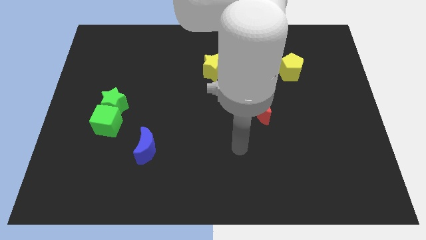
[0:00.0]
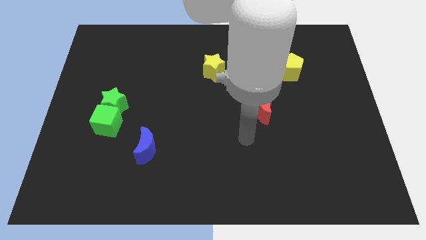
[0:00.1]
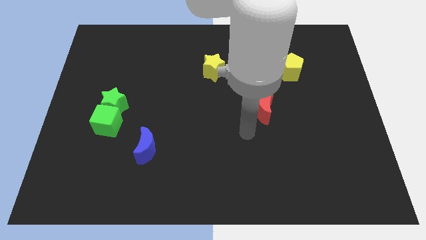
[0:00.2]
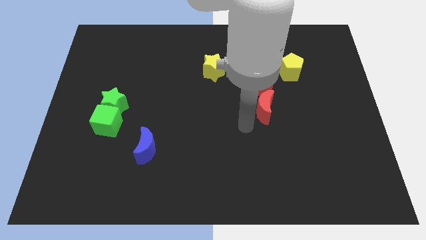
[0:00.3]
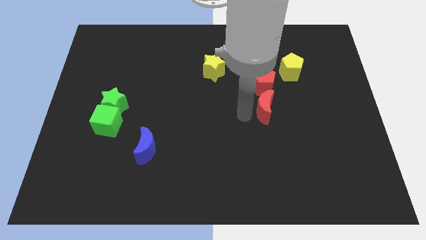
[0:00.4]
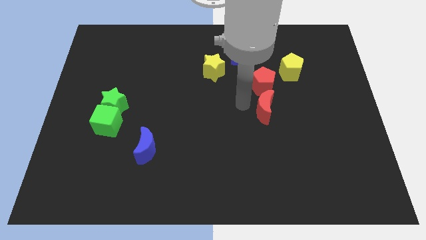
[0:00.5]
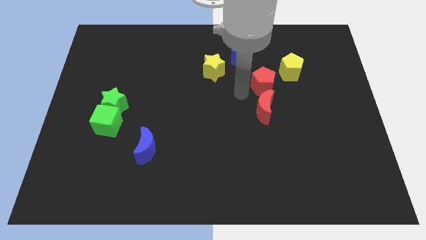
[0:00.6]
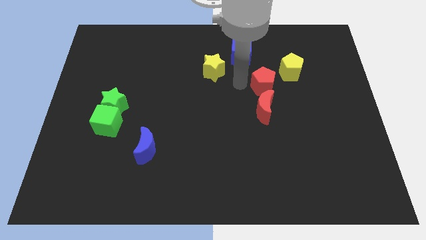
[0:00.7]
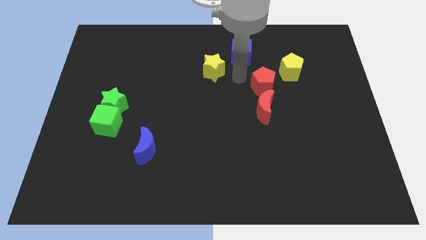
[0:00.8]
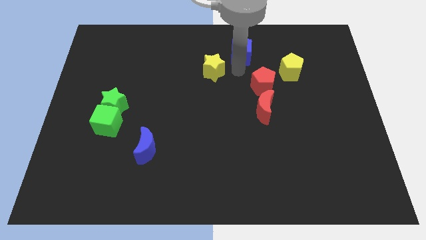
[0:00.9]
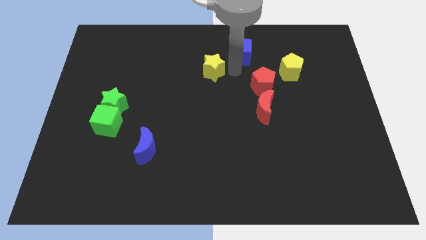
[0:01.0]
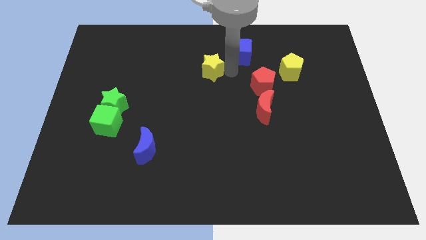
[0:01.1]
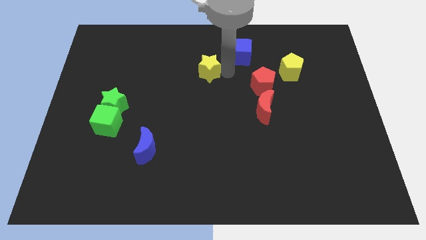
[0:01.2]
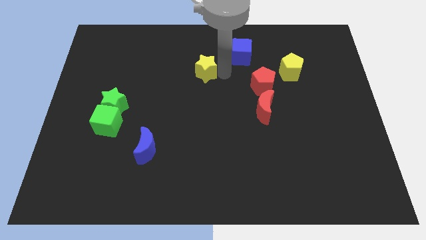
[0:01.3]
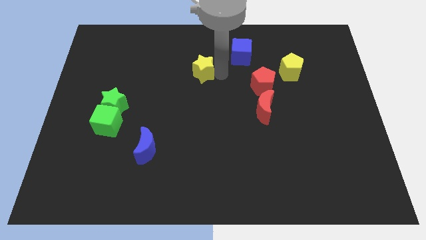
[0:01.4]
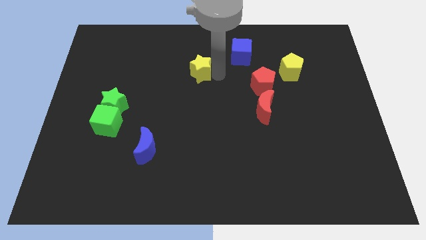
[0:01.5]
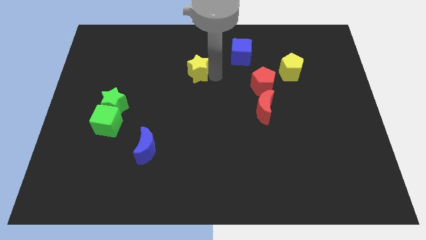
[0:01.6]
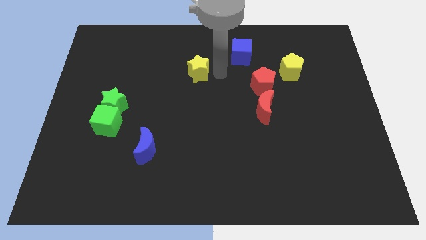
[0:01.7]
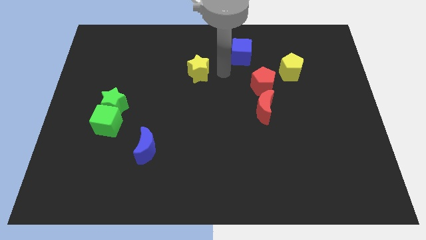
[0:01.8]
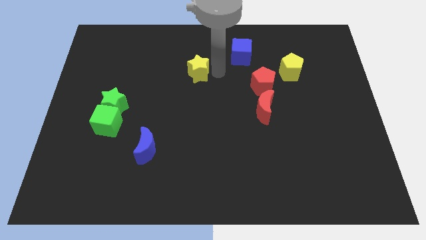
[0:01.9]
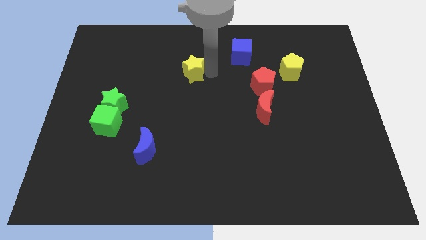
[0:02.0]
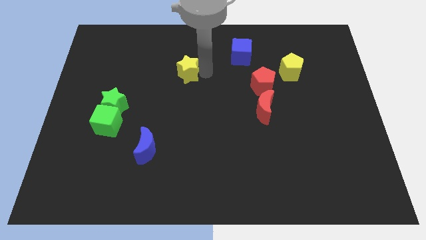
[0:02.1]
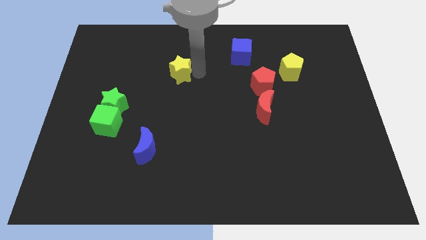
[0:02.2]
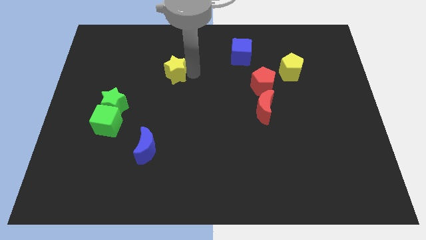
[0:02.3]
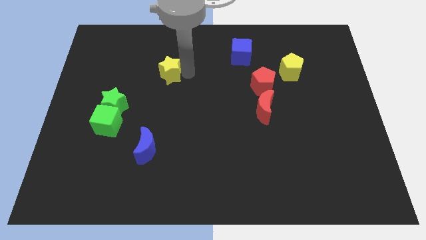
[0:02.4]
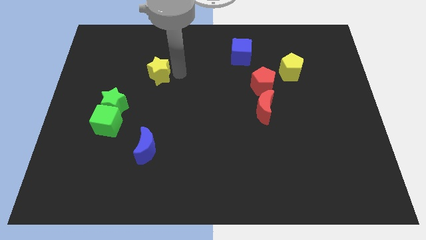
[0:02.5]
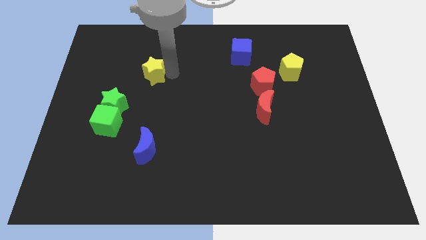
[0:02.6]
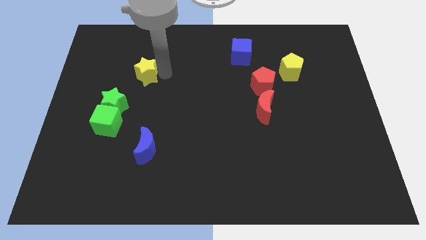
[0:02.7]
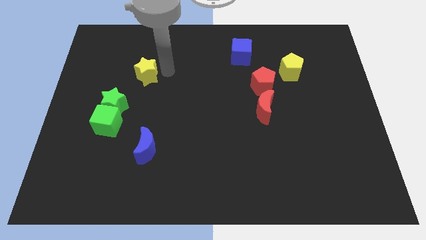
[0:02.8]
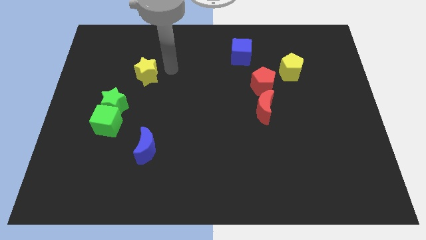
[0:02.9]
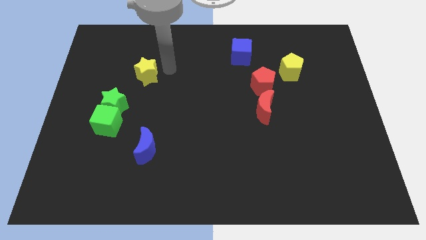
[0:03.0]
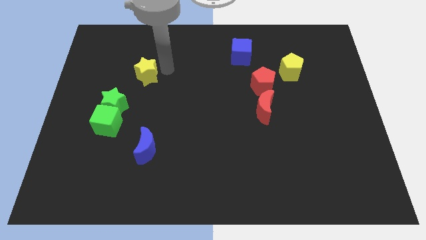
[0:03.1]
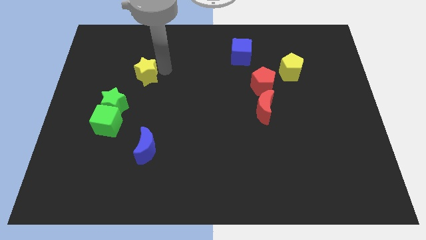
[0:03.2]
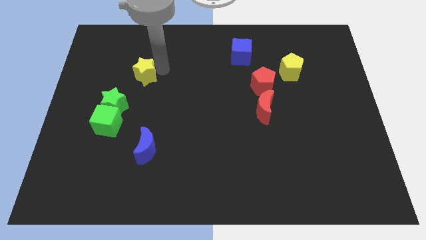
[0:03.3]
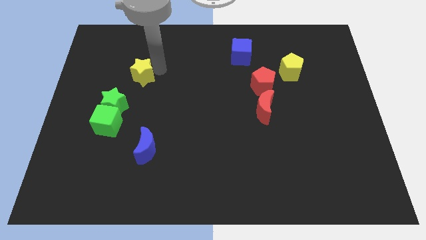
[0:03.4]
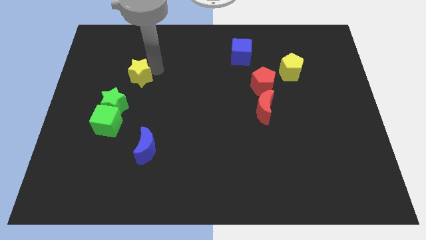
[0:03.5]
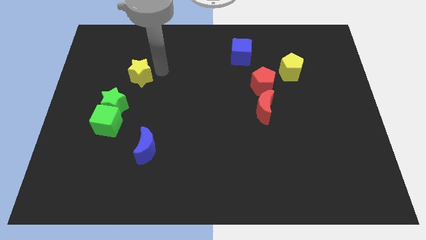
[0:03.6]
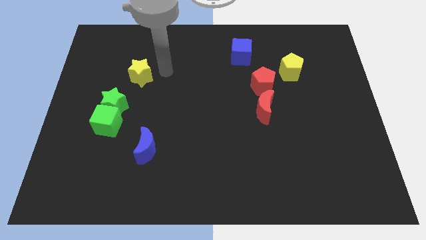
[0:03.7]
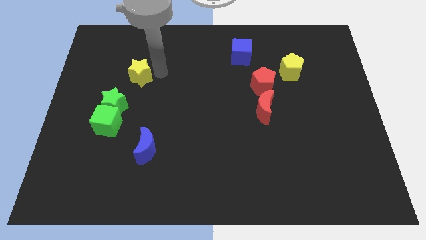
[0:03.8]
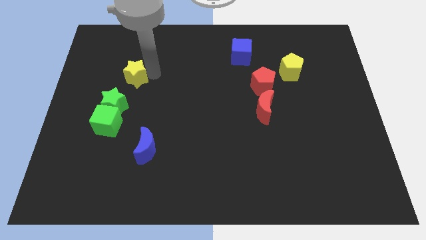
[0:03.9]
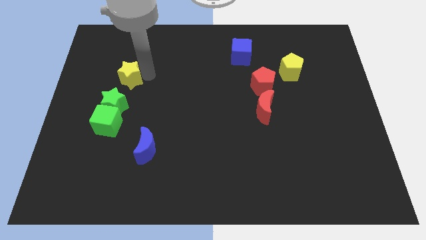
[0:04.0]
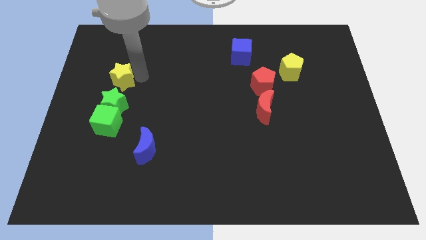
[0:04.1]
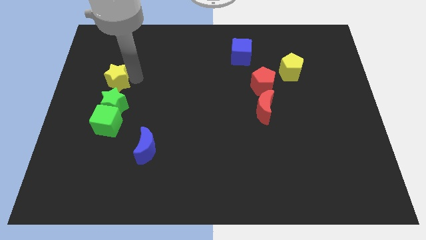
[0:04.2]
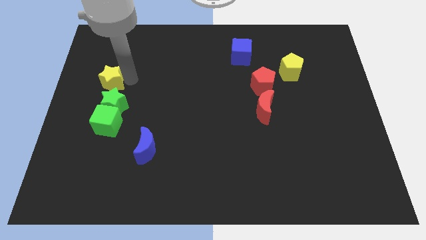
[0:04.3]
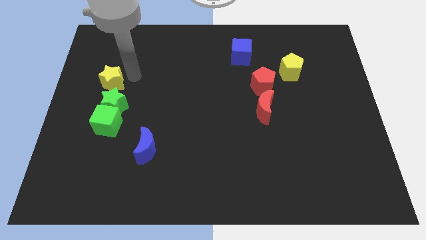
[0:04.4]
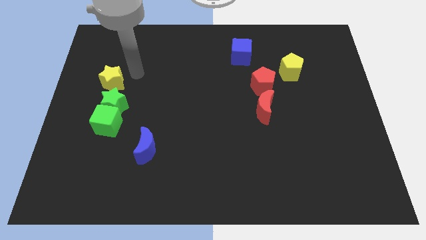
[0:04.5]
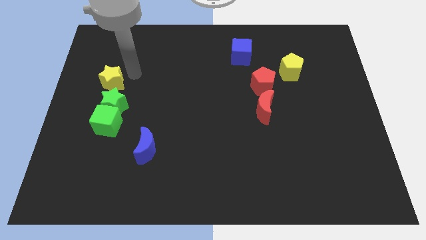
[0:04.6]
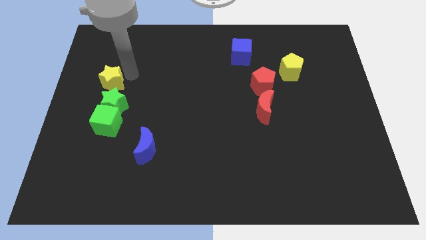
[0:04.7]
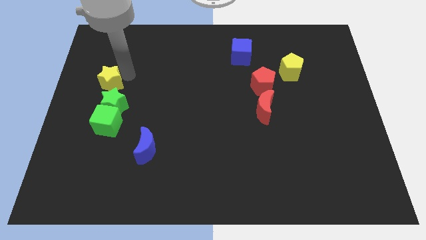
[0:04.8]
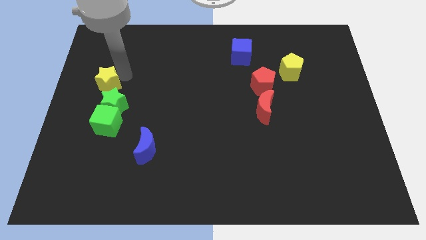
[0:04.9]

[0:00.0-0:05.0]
put the yellow star to the left side
